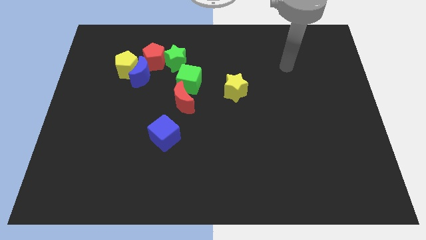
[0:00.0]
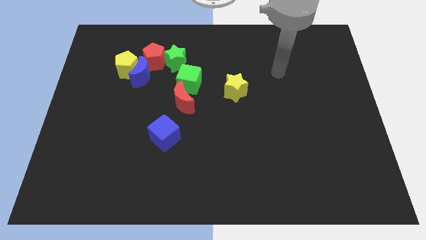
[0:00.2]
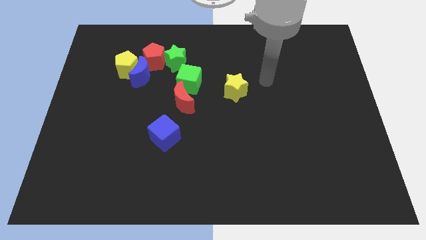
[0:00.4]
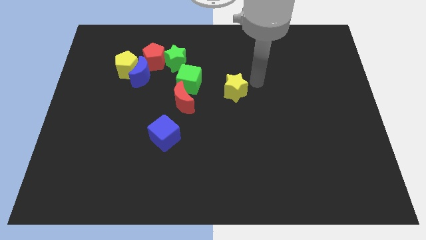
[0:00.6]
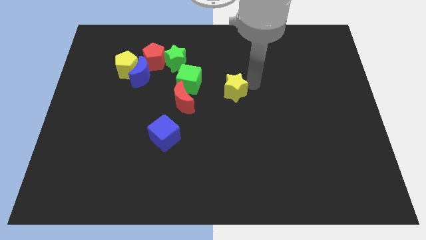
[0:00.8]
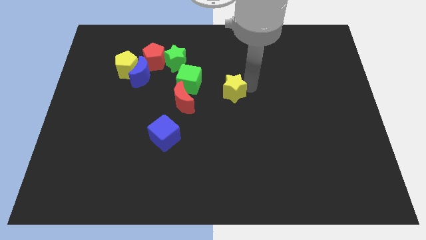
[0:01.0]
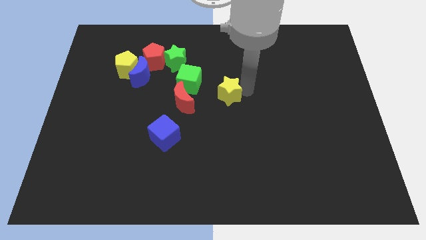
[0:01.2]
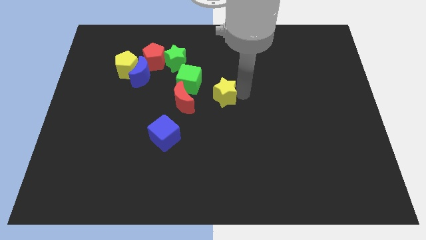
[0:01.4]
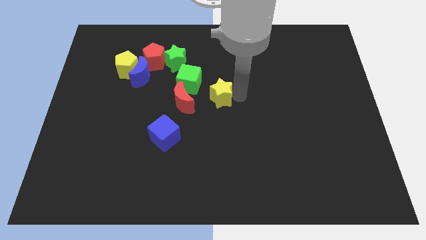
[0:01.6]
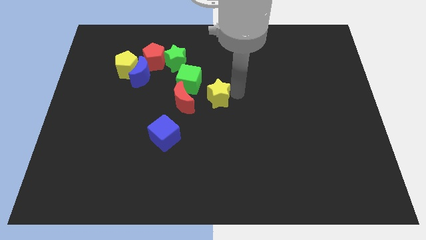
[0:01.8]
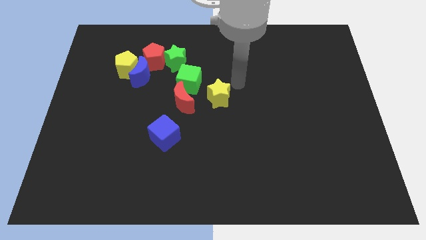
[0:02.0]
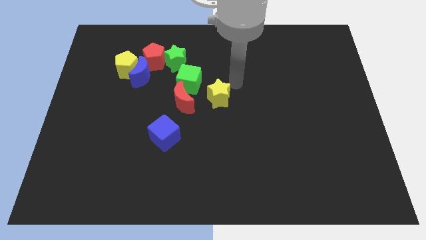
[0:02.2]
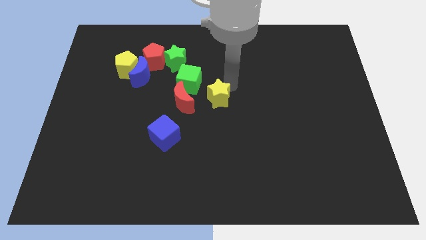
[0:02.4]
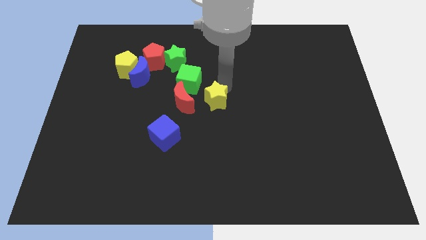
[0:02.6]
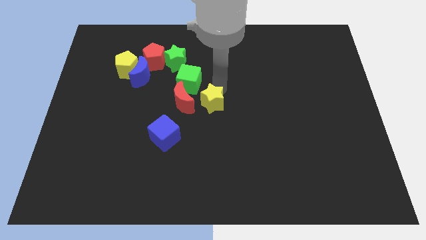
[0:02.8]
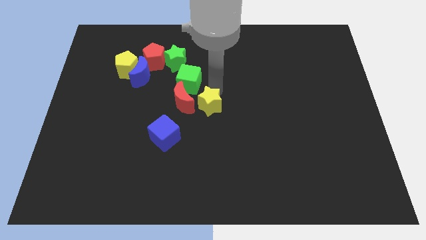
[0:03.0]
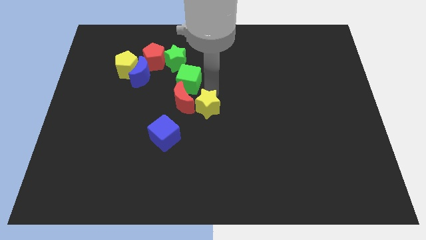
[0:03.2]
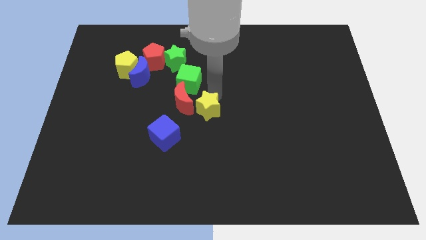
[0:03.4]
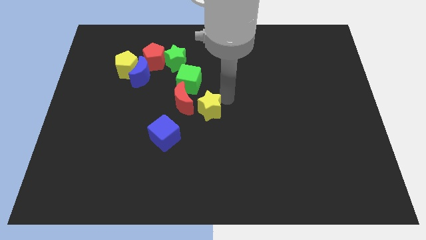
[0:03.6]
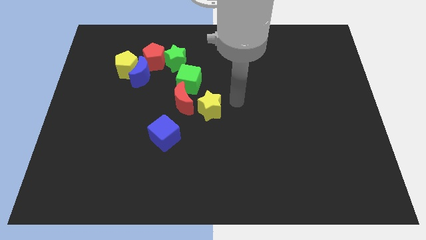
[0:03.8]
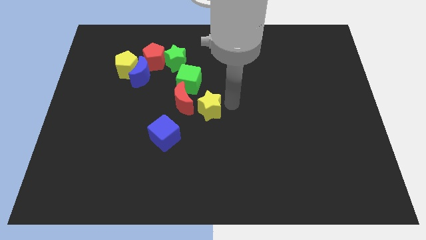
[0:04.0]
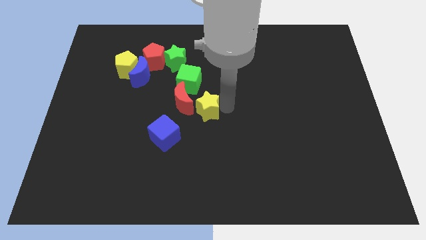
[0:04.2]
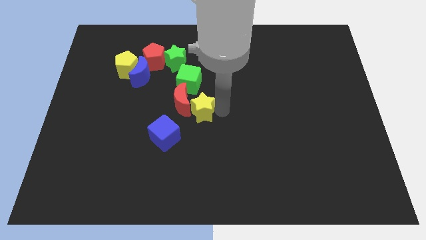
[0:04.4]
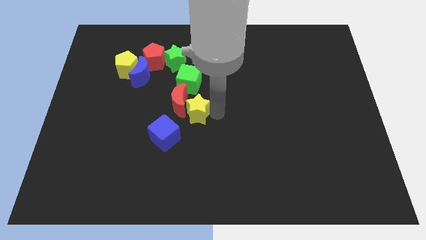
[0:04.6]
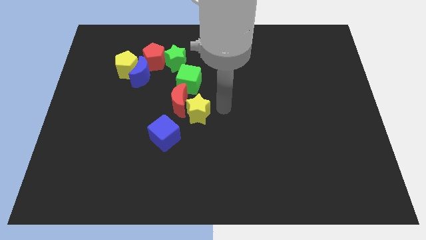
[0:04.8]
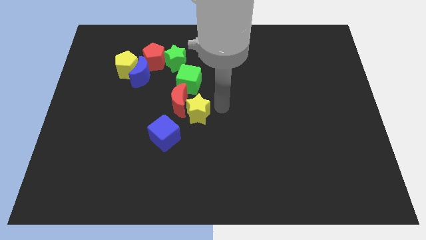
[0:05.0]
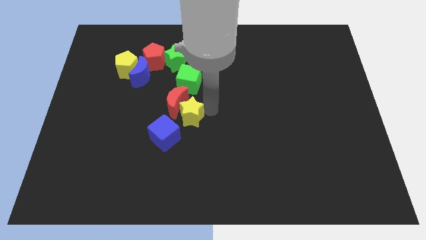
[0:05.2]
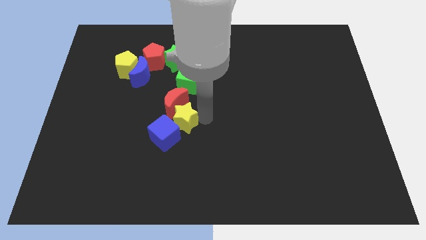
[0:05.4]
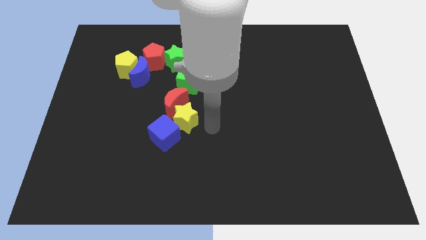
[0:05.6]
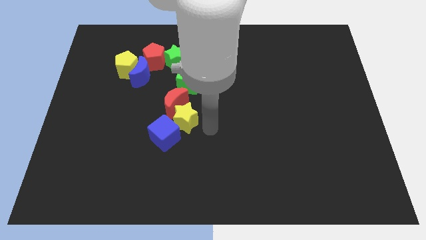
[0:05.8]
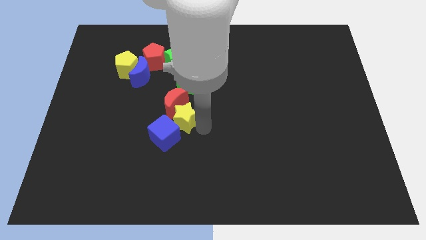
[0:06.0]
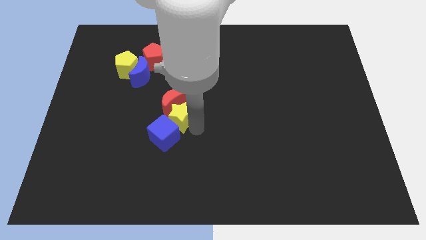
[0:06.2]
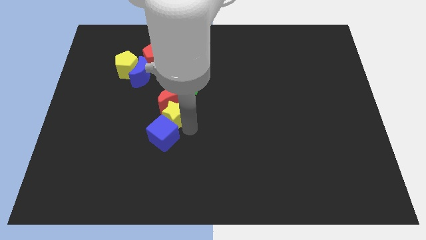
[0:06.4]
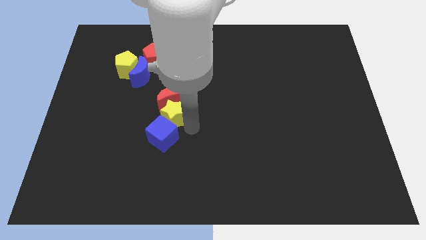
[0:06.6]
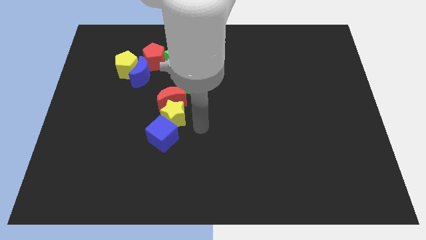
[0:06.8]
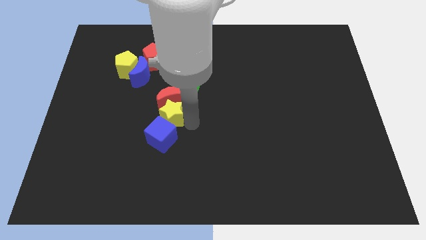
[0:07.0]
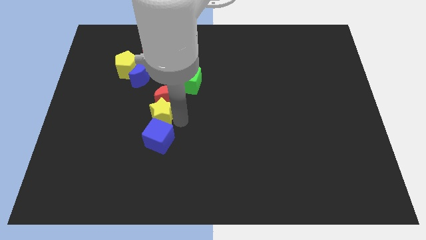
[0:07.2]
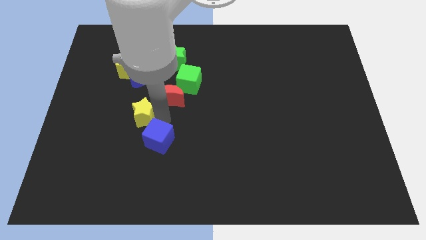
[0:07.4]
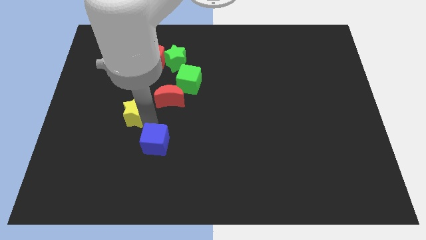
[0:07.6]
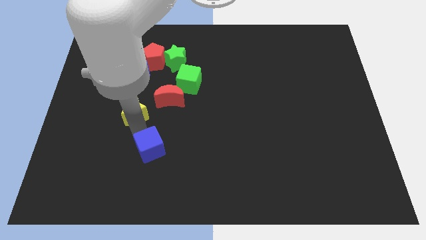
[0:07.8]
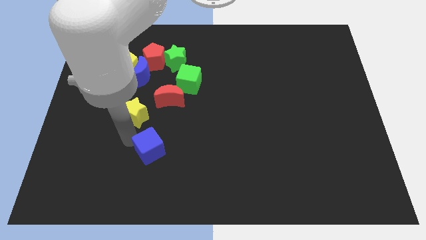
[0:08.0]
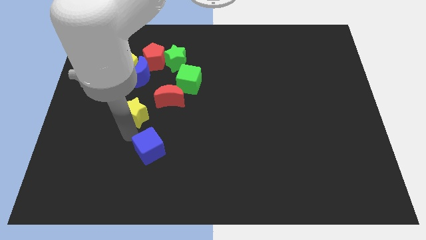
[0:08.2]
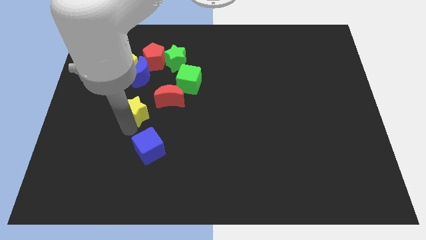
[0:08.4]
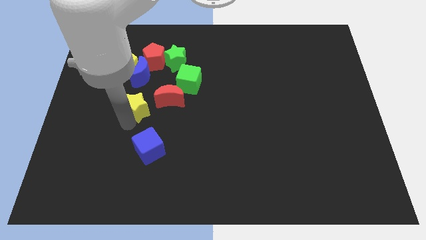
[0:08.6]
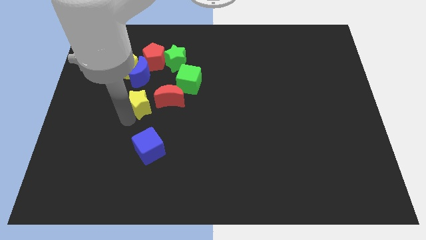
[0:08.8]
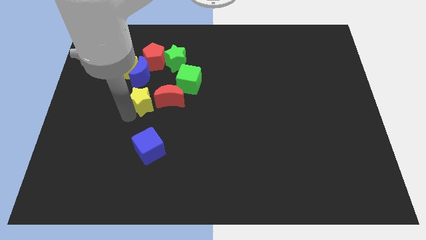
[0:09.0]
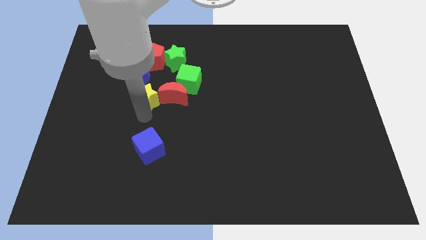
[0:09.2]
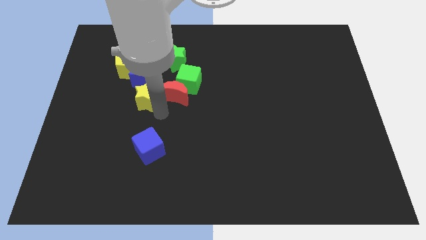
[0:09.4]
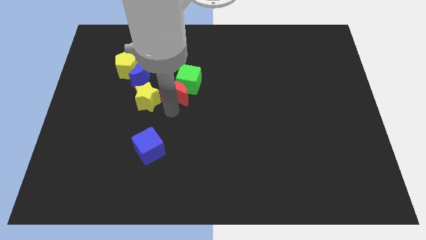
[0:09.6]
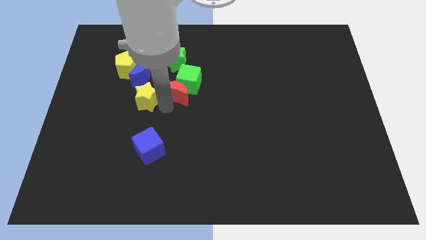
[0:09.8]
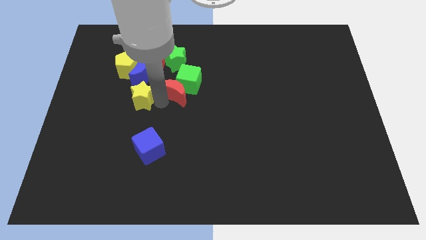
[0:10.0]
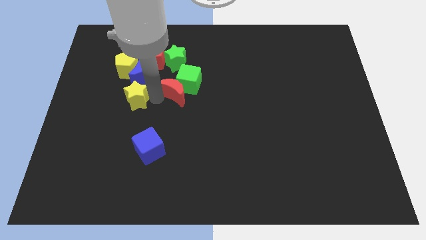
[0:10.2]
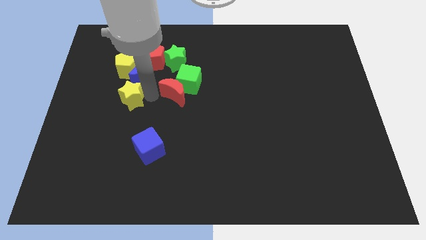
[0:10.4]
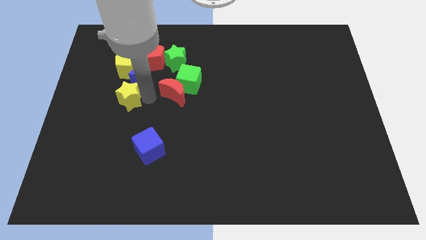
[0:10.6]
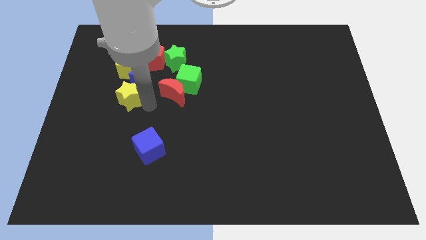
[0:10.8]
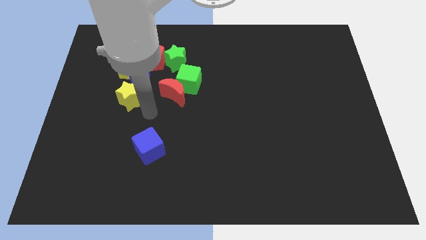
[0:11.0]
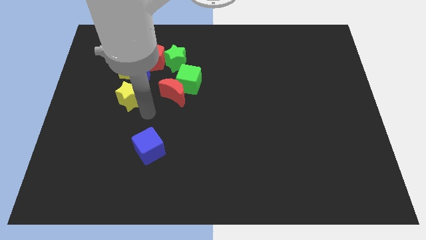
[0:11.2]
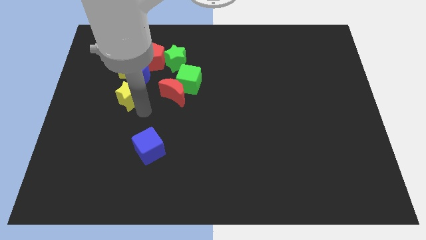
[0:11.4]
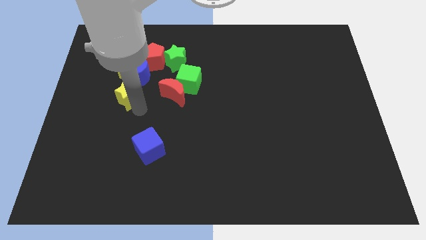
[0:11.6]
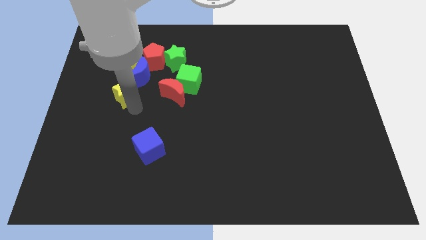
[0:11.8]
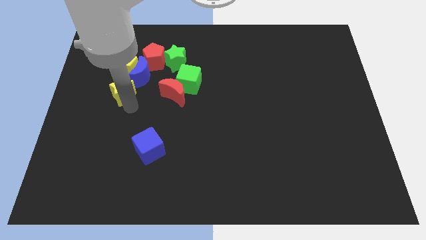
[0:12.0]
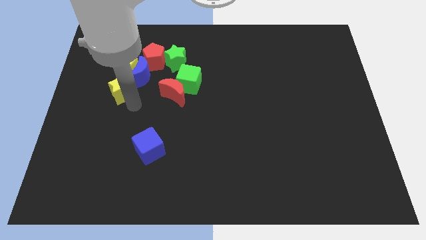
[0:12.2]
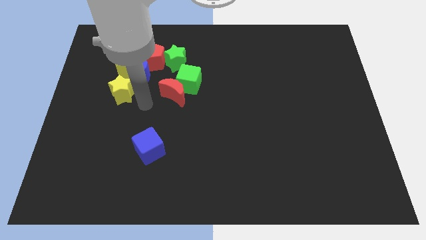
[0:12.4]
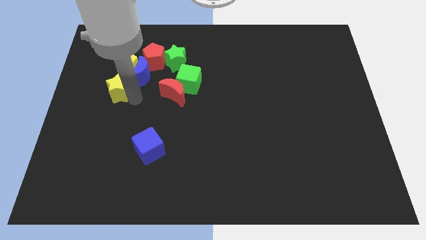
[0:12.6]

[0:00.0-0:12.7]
push the yellow star diagonally down and to the left of the yellow pentagon

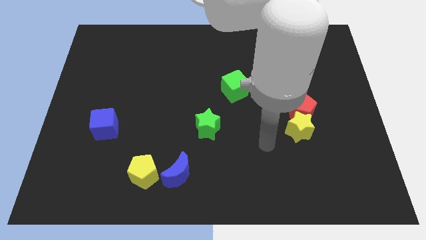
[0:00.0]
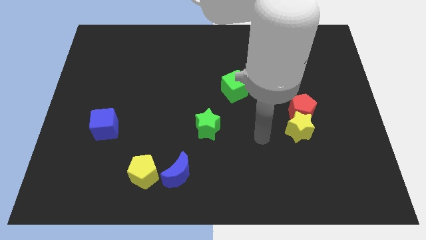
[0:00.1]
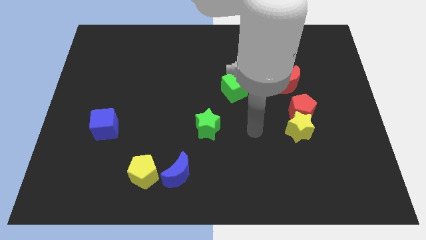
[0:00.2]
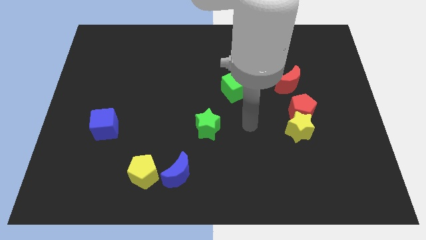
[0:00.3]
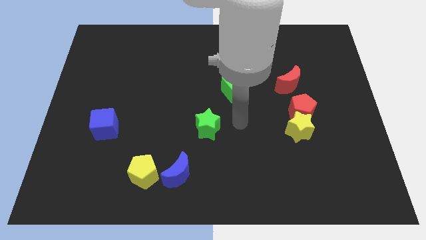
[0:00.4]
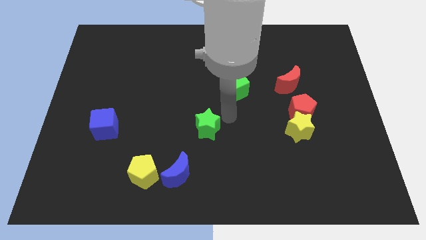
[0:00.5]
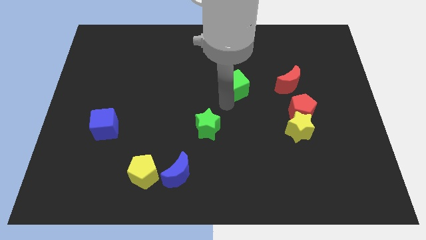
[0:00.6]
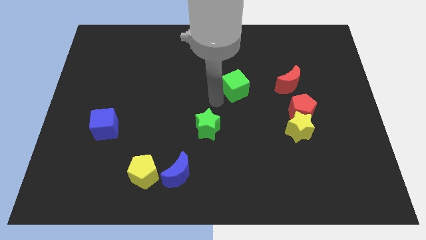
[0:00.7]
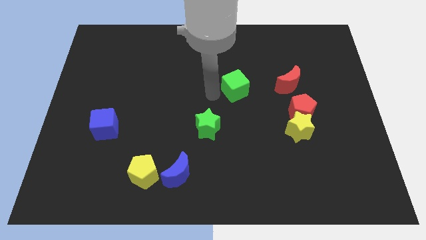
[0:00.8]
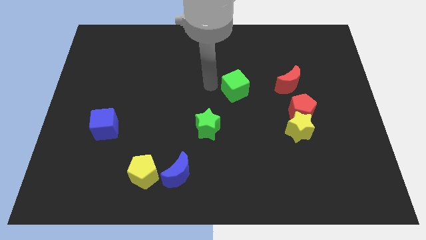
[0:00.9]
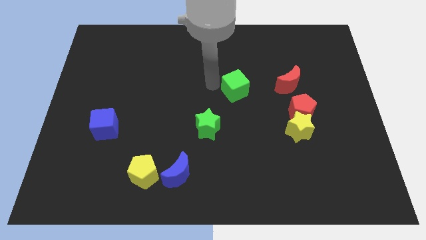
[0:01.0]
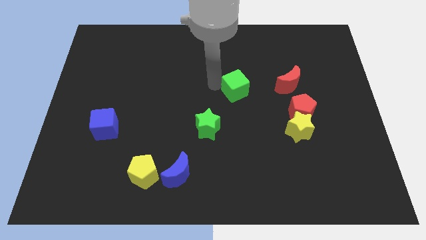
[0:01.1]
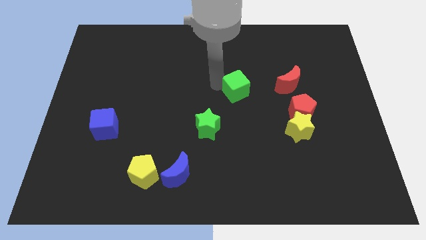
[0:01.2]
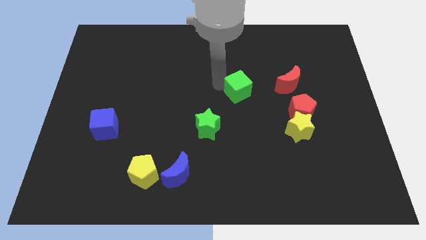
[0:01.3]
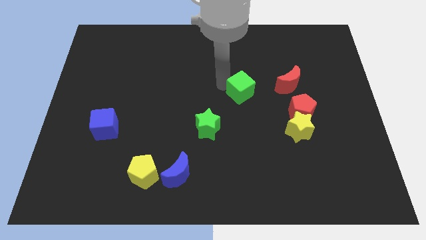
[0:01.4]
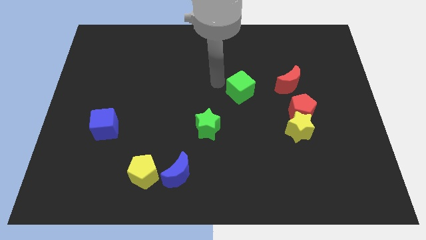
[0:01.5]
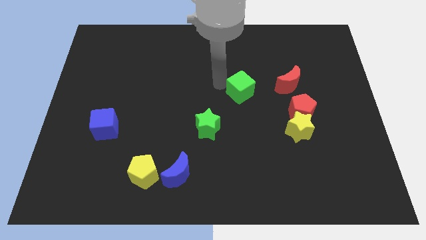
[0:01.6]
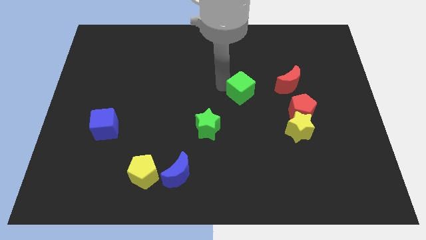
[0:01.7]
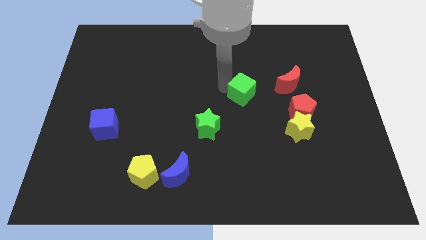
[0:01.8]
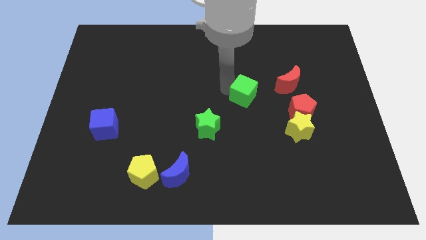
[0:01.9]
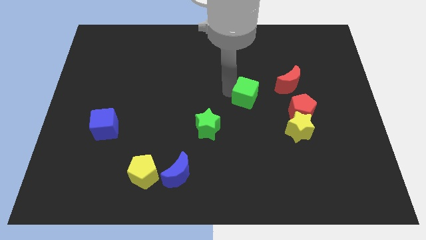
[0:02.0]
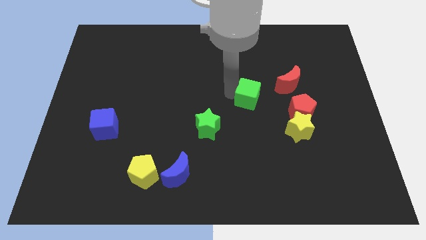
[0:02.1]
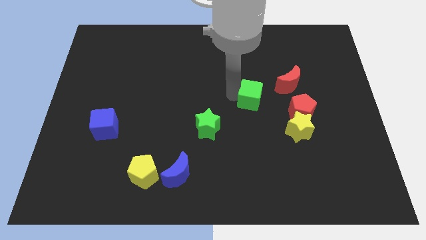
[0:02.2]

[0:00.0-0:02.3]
put the green cube diagonally down and to the left of the red moon
